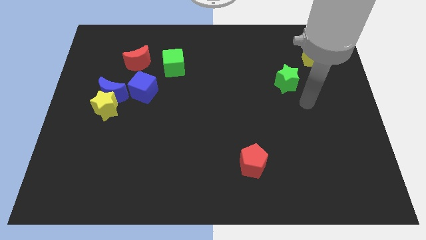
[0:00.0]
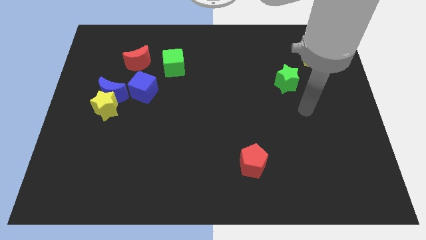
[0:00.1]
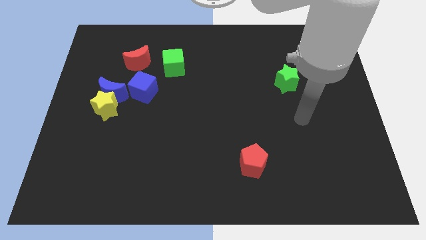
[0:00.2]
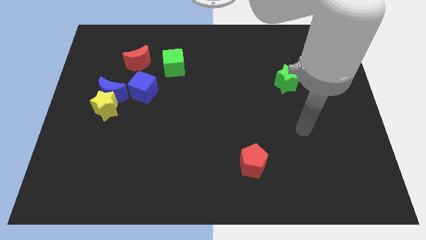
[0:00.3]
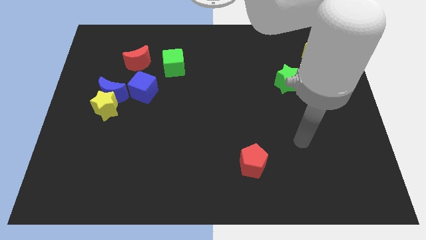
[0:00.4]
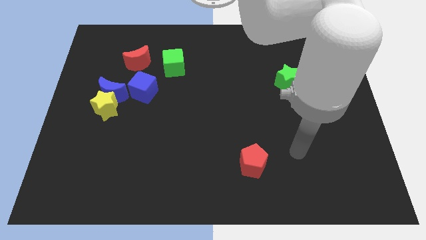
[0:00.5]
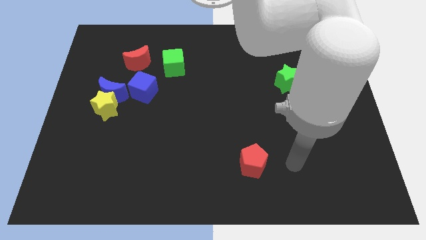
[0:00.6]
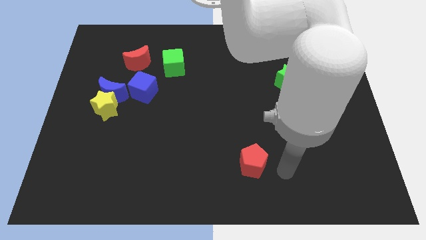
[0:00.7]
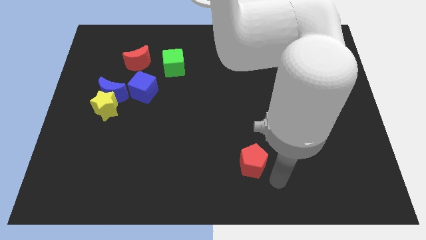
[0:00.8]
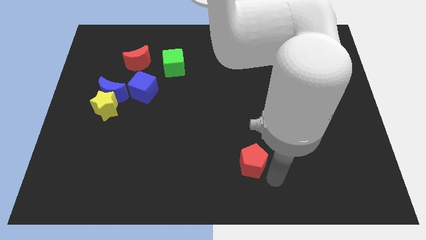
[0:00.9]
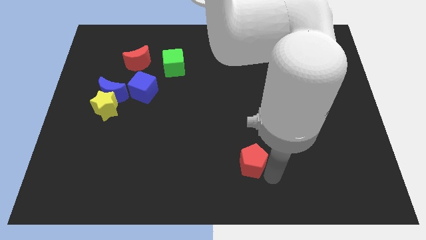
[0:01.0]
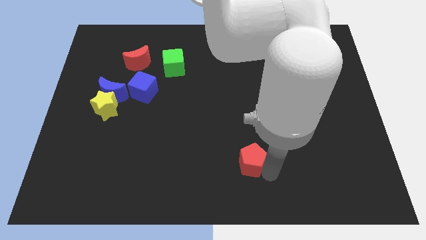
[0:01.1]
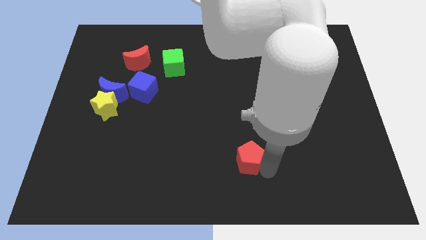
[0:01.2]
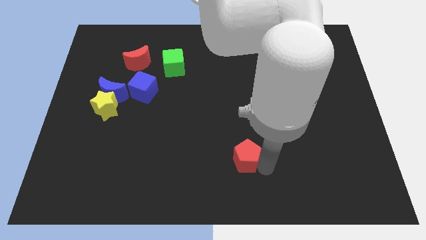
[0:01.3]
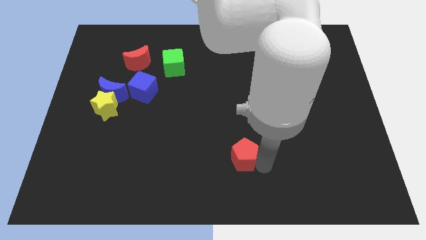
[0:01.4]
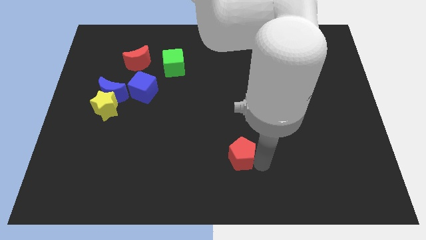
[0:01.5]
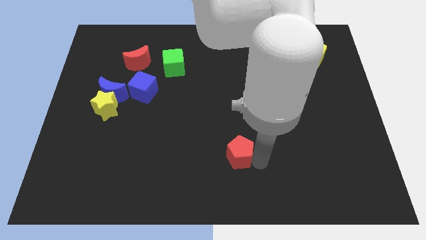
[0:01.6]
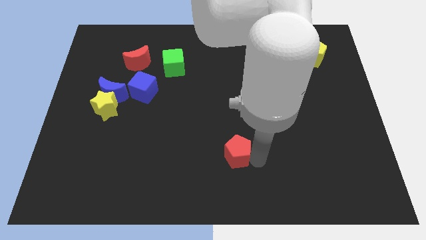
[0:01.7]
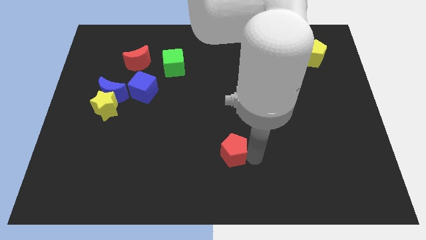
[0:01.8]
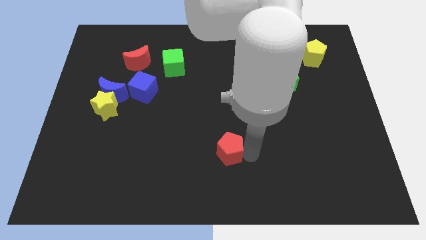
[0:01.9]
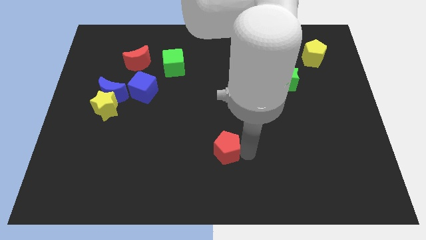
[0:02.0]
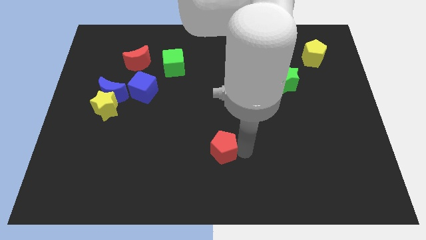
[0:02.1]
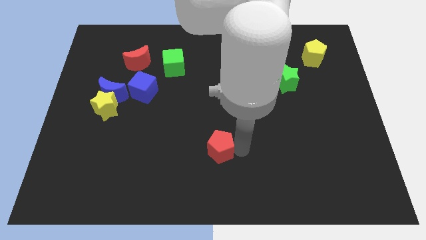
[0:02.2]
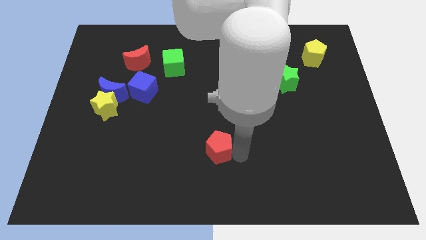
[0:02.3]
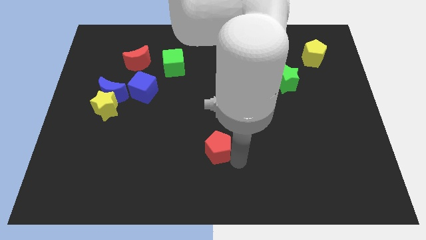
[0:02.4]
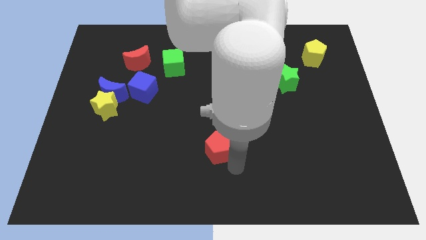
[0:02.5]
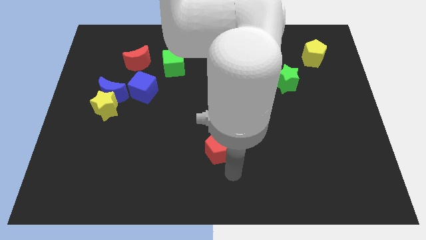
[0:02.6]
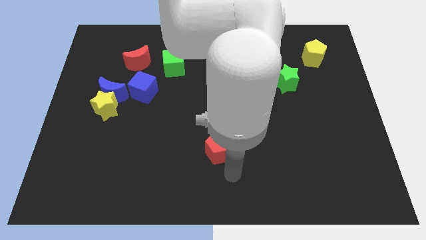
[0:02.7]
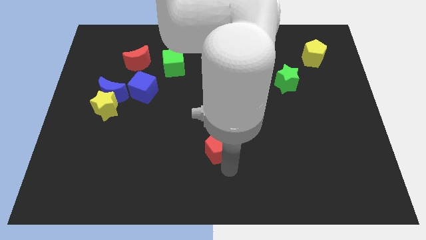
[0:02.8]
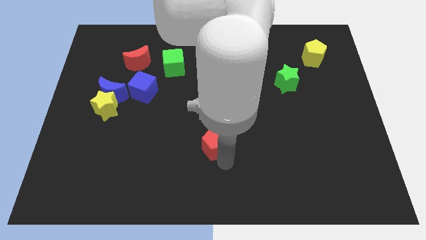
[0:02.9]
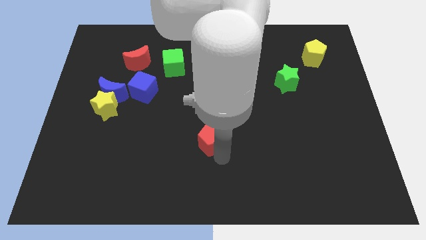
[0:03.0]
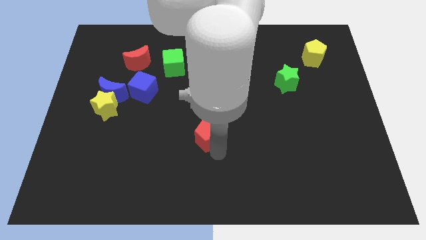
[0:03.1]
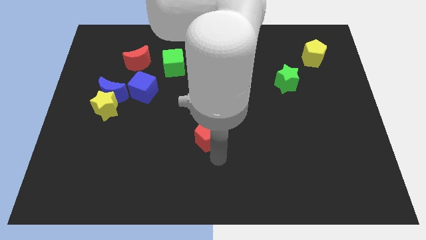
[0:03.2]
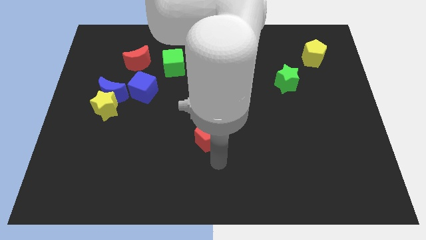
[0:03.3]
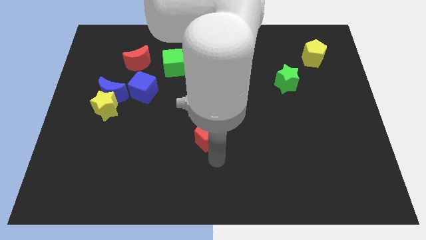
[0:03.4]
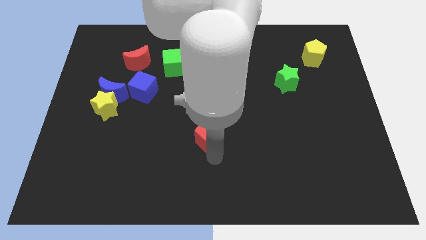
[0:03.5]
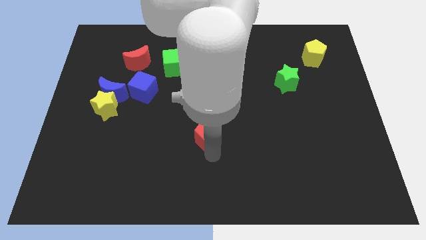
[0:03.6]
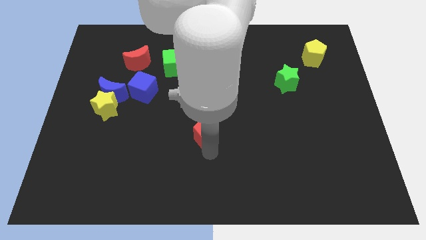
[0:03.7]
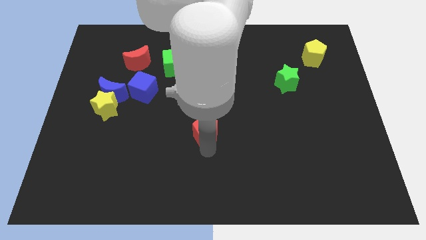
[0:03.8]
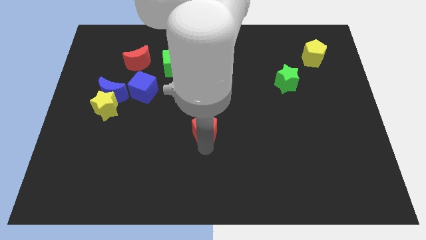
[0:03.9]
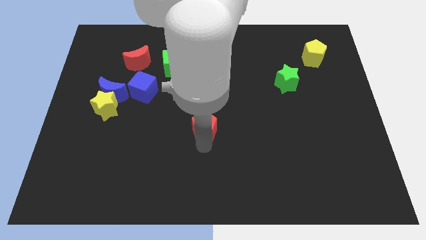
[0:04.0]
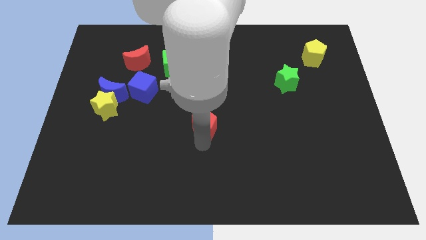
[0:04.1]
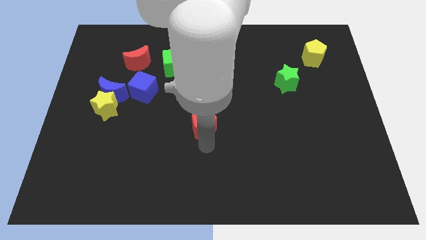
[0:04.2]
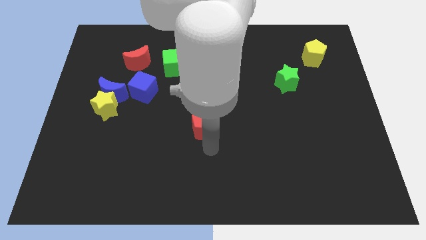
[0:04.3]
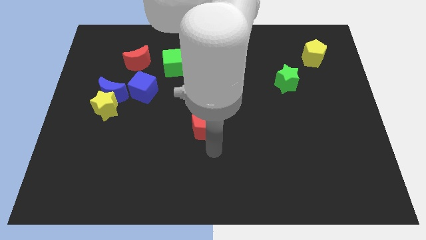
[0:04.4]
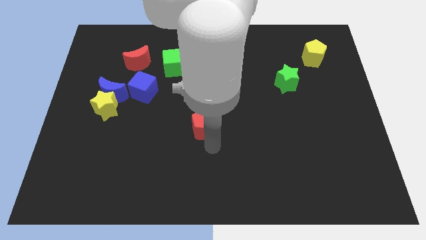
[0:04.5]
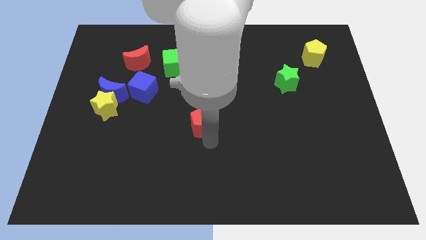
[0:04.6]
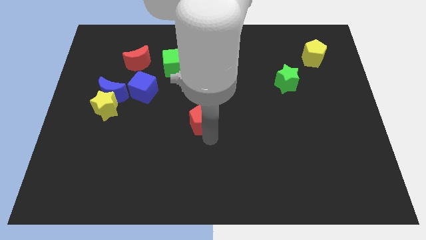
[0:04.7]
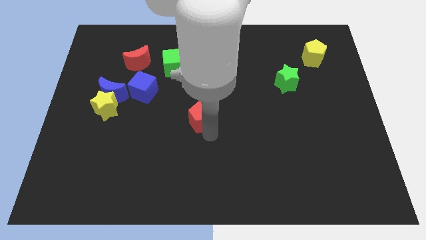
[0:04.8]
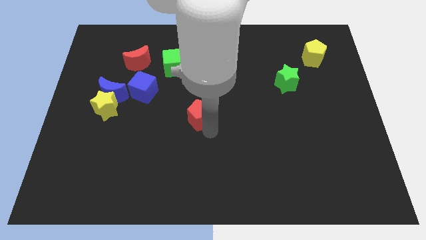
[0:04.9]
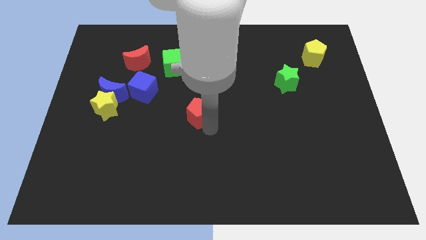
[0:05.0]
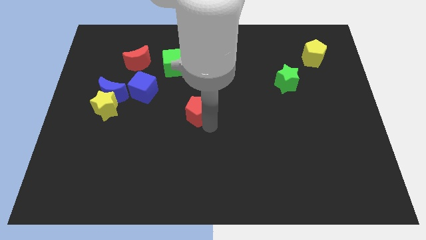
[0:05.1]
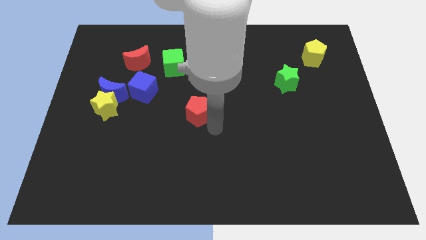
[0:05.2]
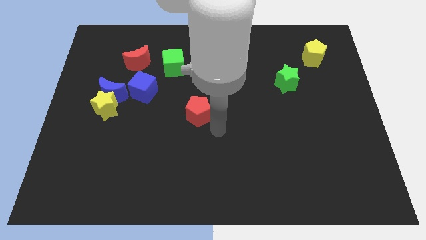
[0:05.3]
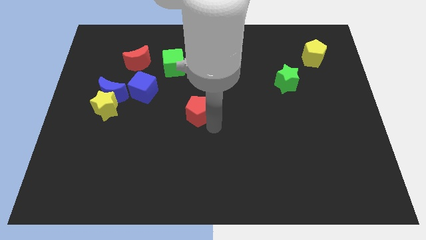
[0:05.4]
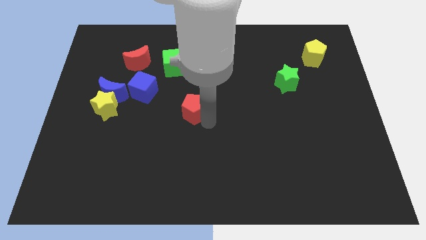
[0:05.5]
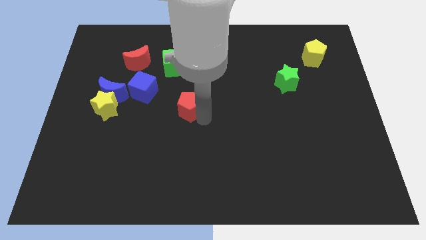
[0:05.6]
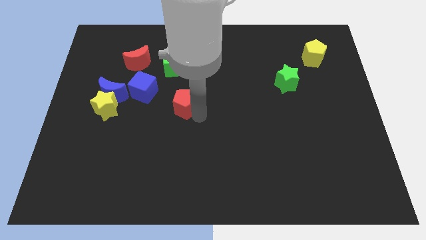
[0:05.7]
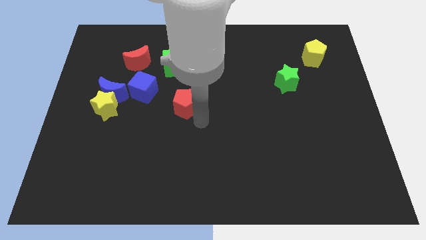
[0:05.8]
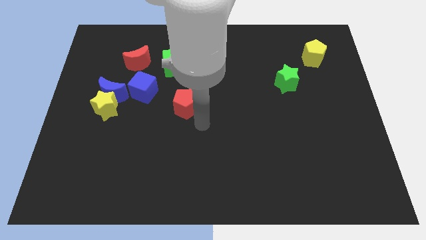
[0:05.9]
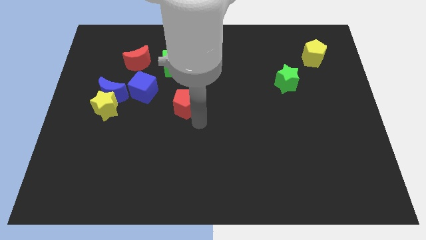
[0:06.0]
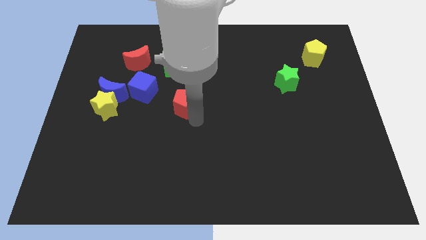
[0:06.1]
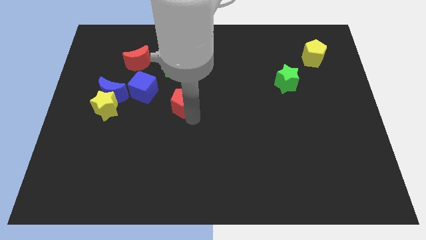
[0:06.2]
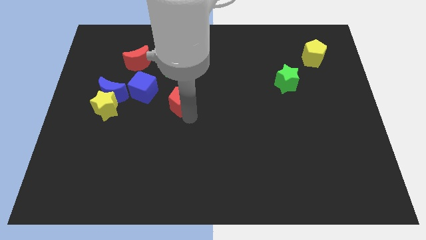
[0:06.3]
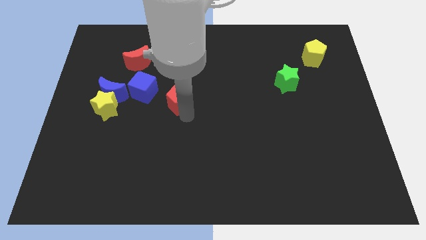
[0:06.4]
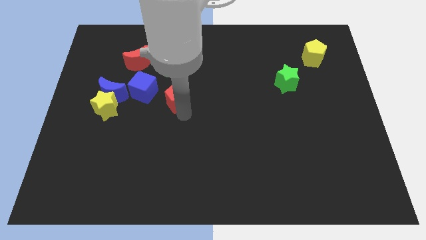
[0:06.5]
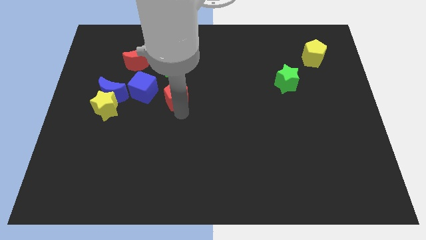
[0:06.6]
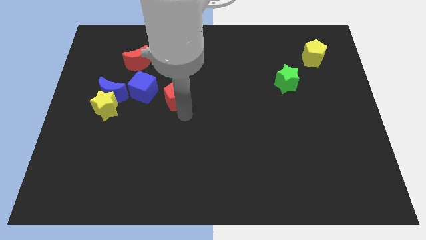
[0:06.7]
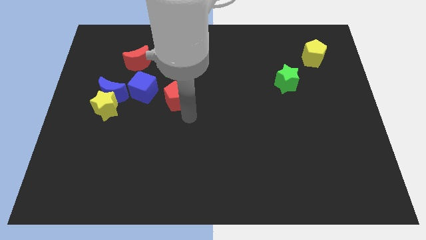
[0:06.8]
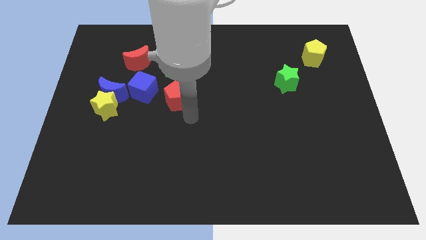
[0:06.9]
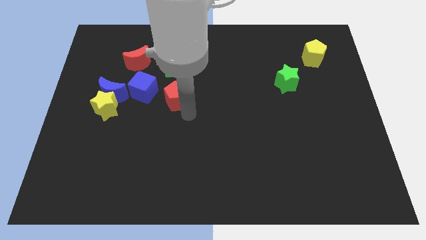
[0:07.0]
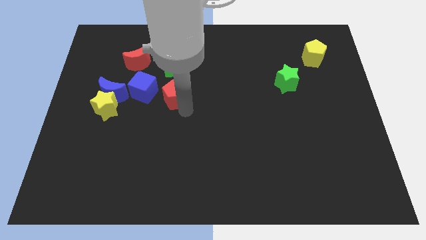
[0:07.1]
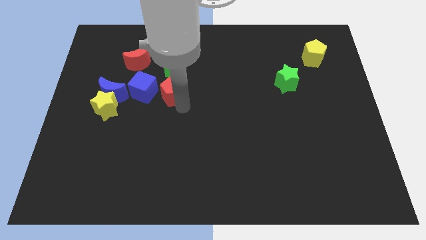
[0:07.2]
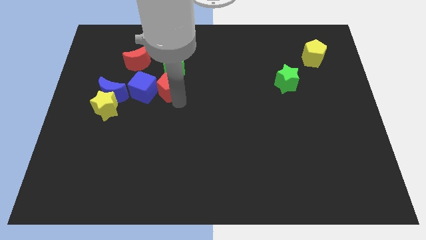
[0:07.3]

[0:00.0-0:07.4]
slide the red pentagon diagonally down and to the right of the red moon
